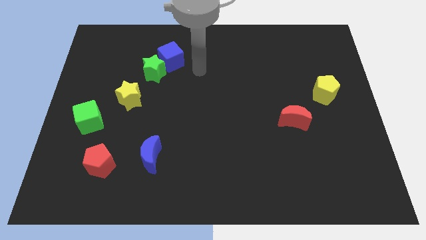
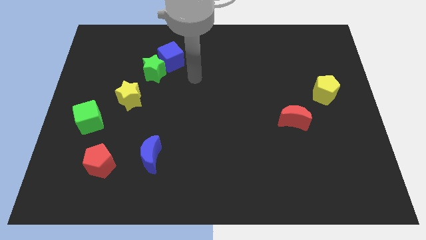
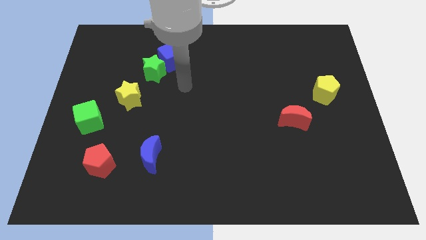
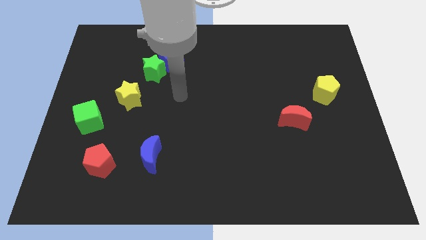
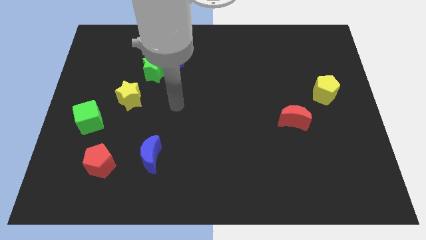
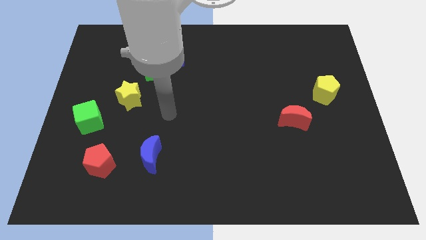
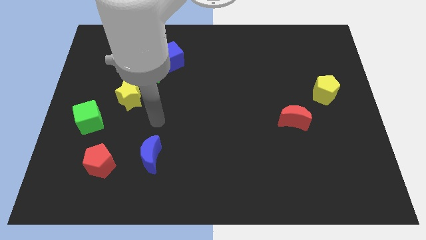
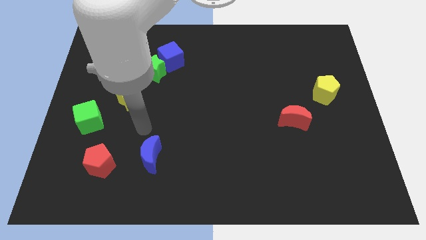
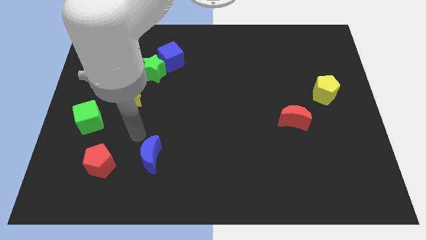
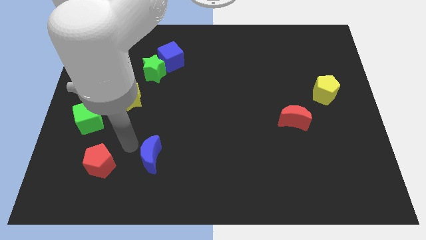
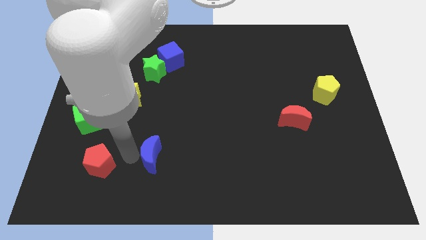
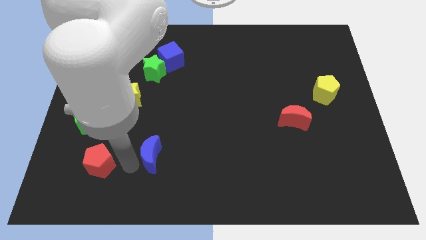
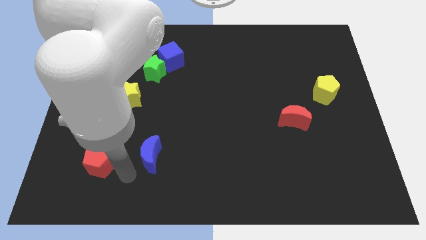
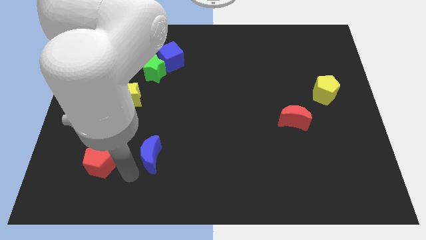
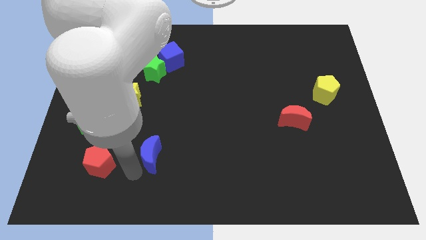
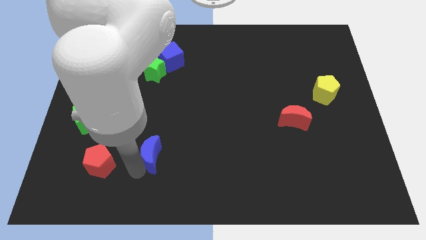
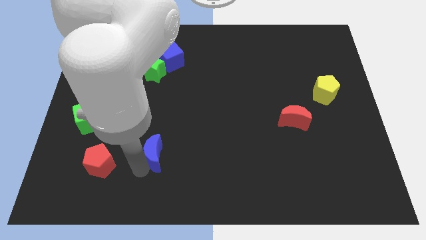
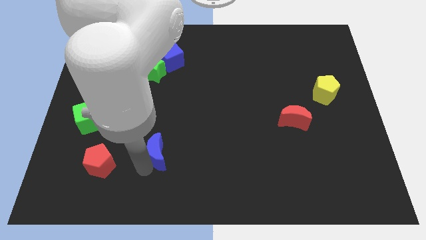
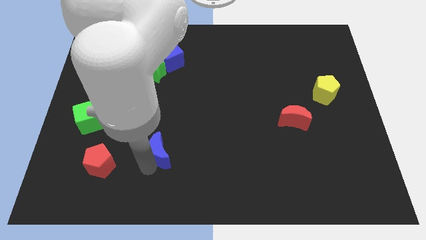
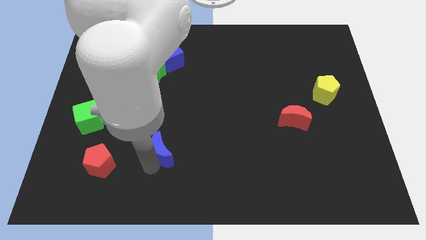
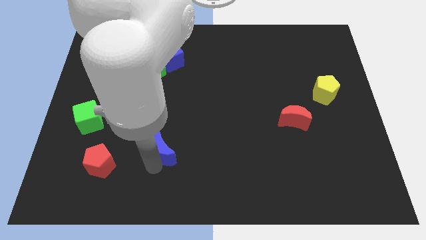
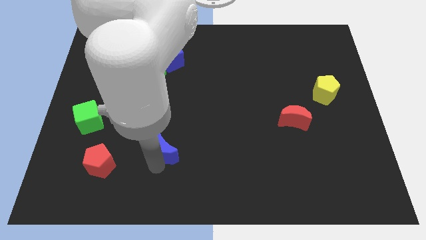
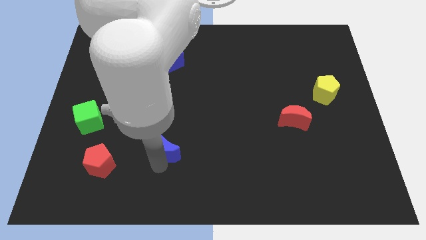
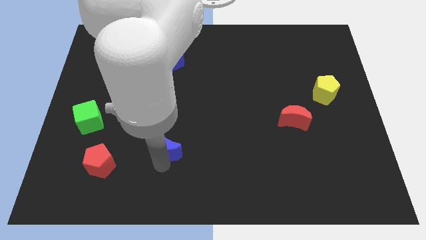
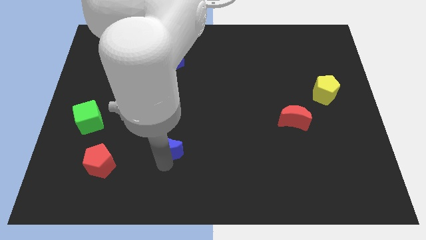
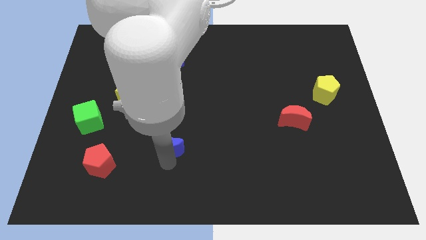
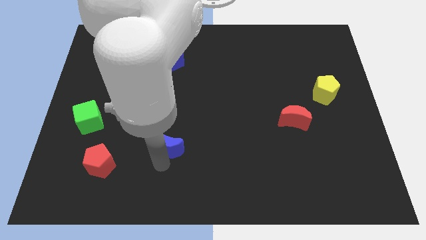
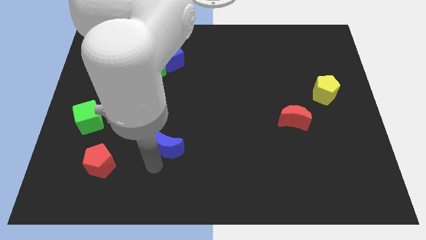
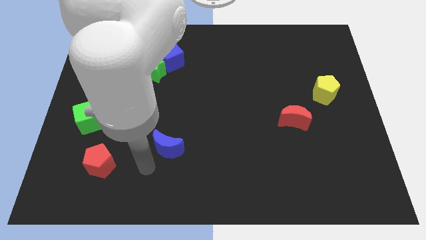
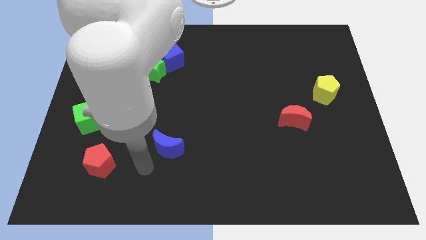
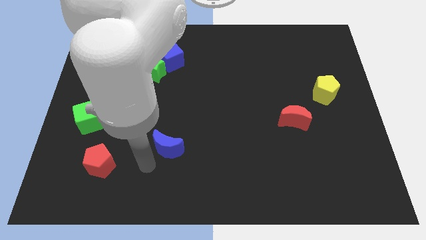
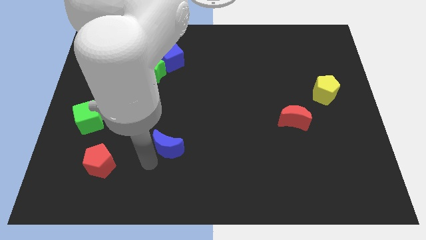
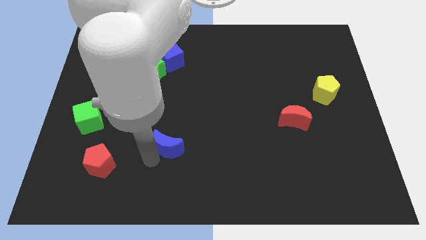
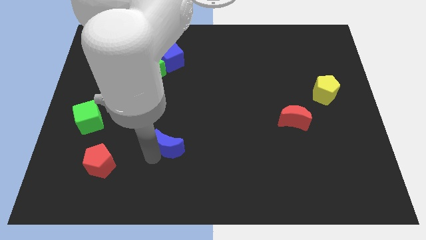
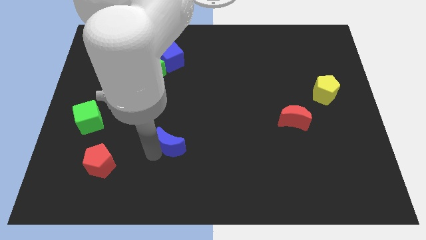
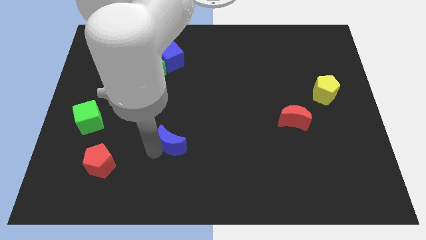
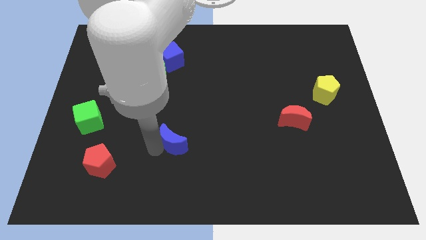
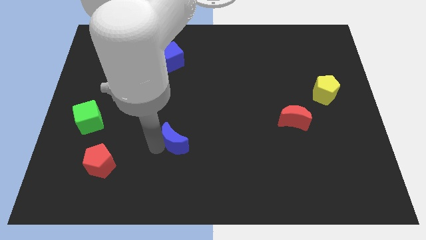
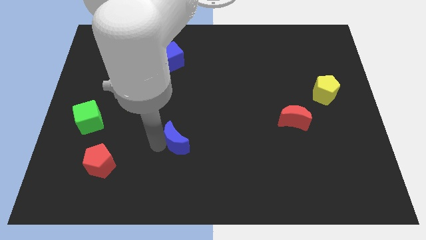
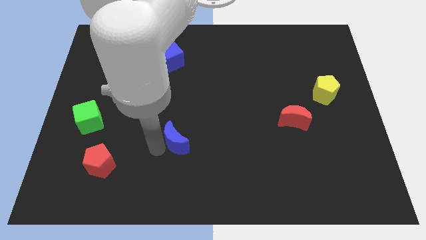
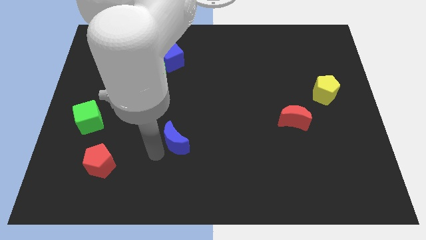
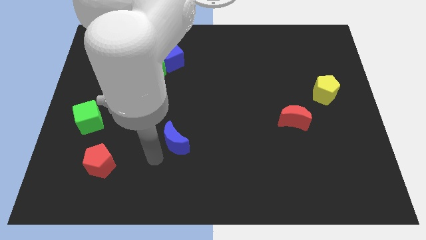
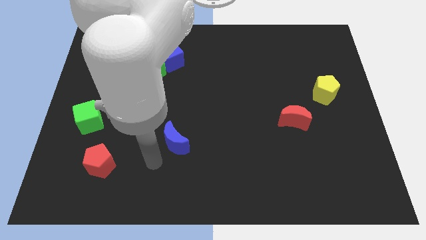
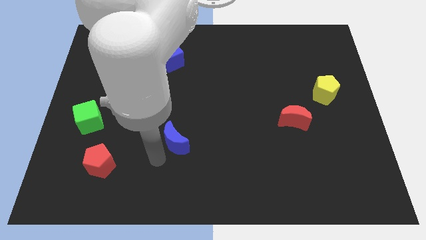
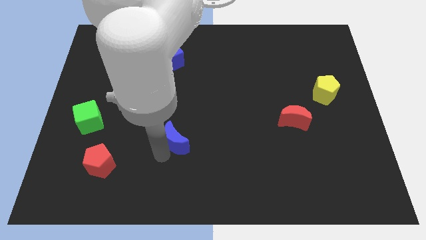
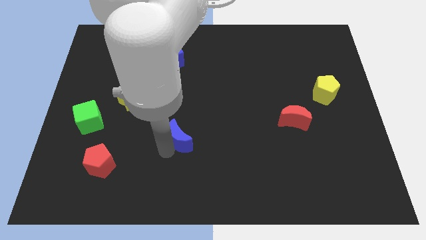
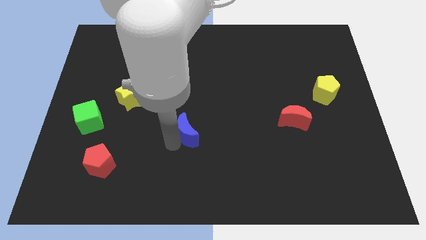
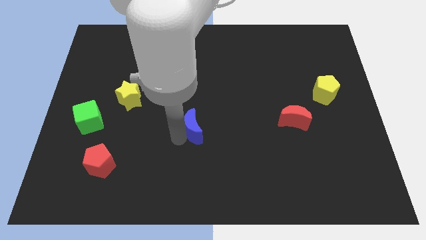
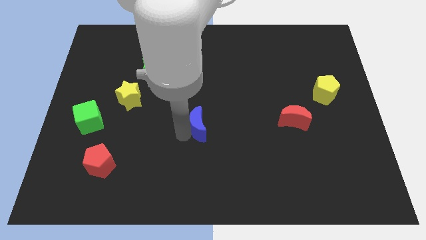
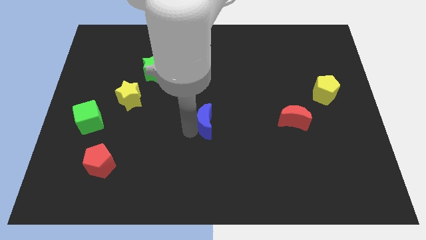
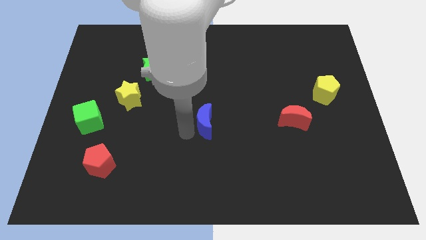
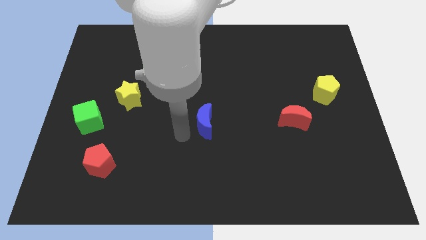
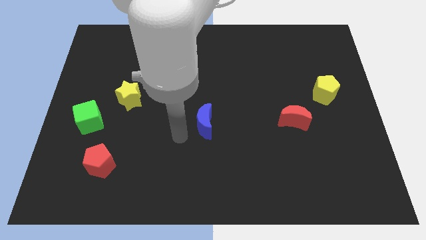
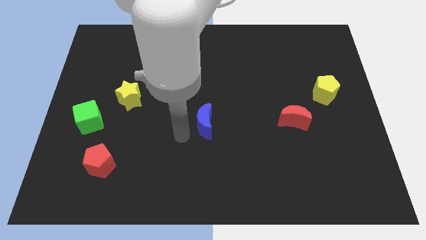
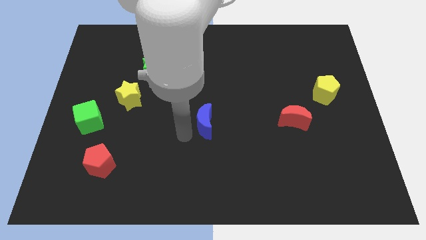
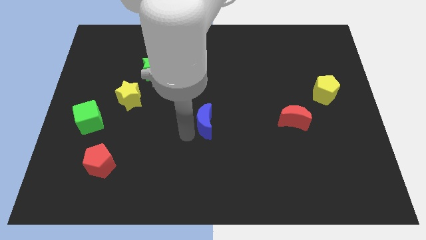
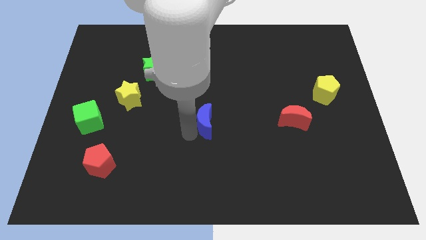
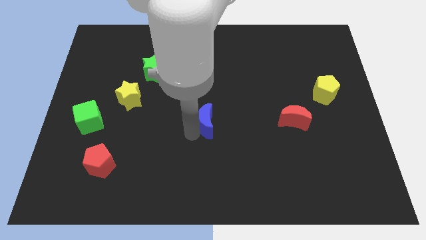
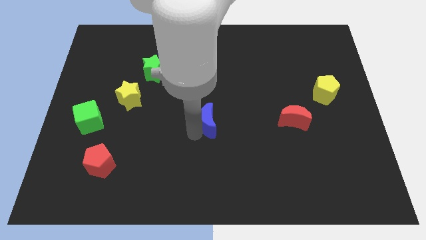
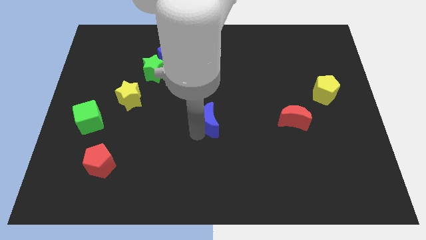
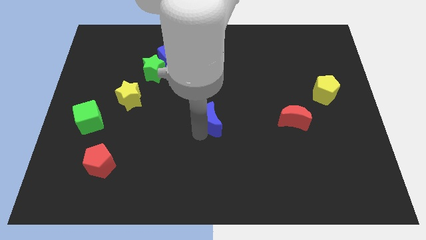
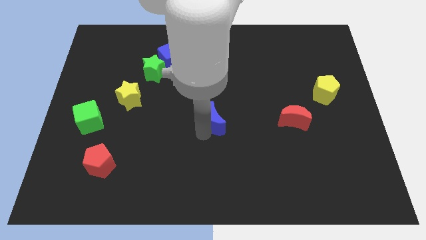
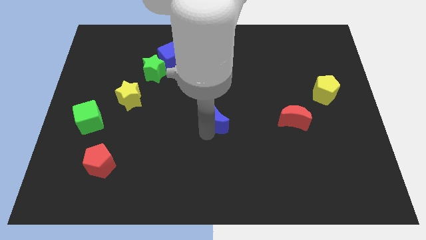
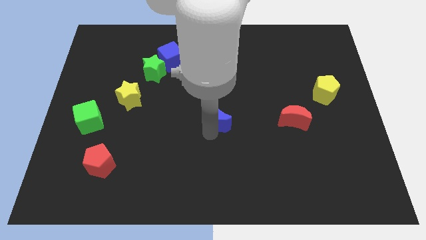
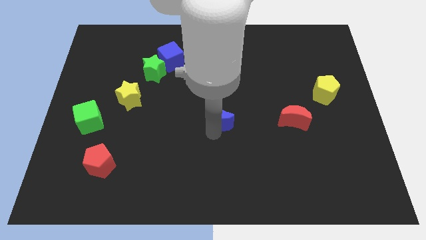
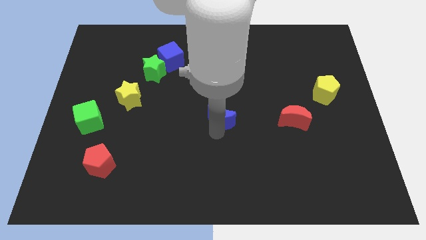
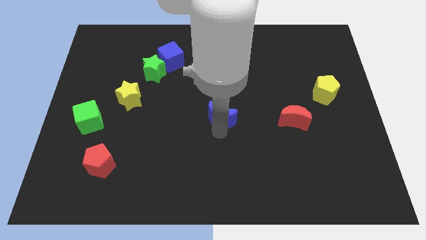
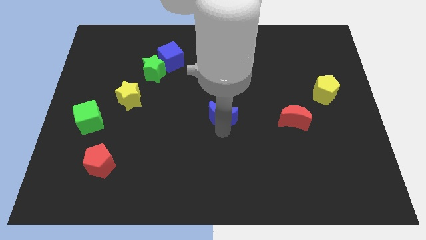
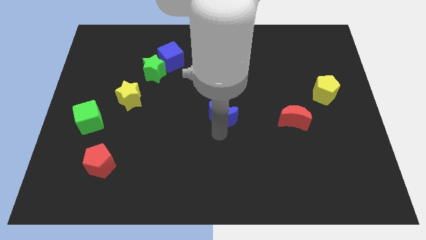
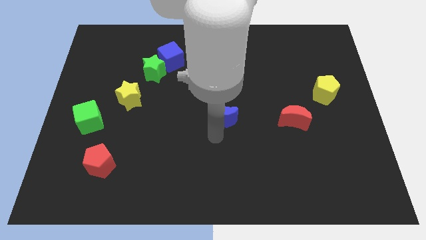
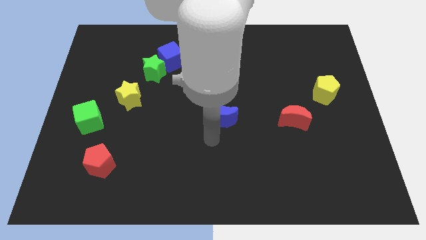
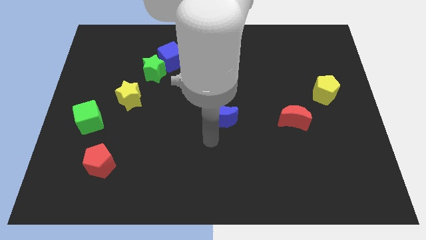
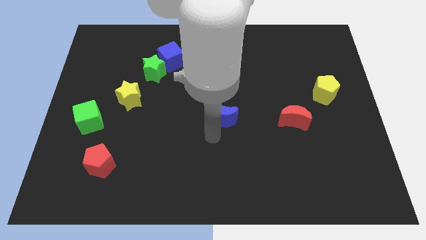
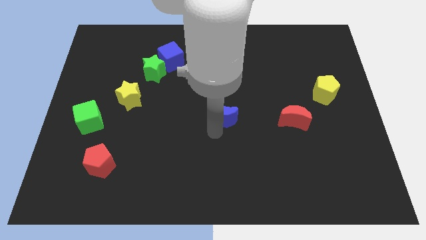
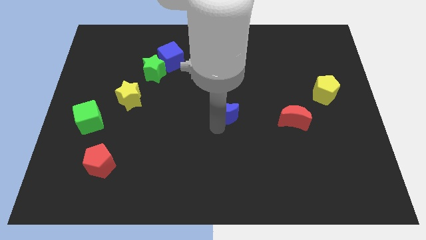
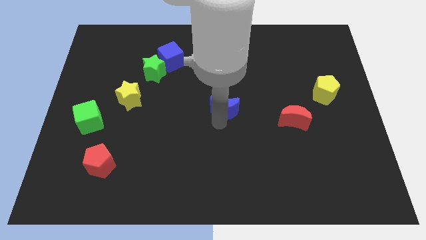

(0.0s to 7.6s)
push the blue moon up and to the right

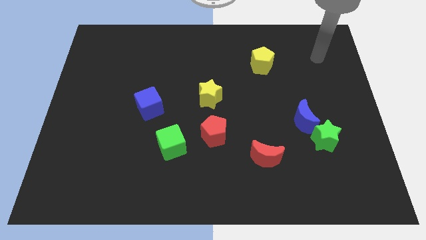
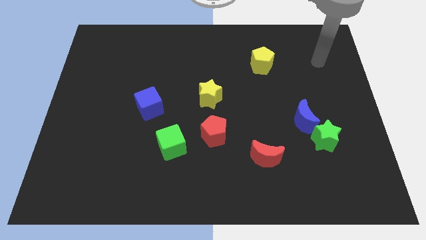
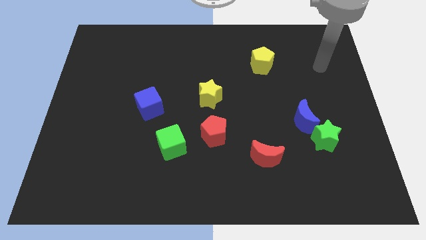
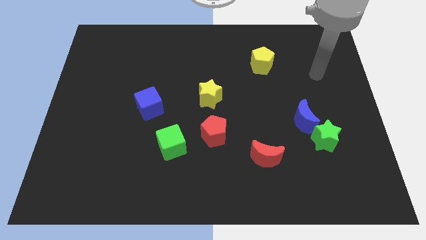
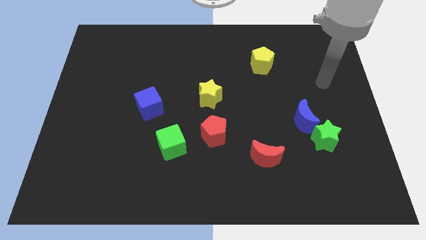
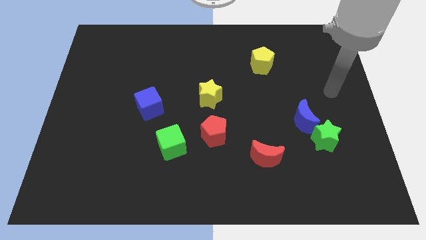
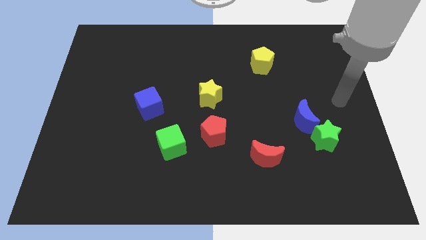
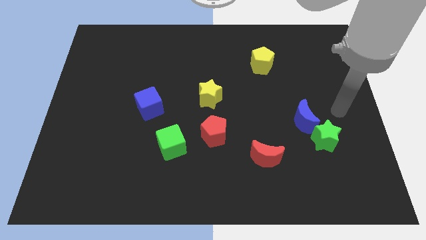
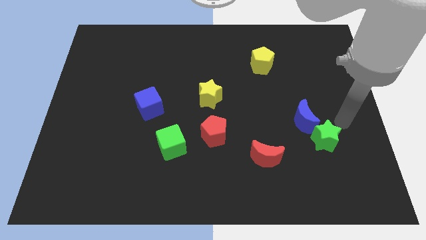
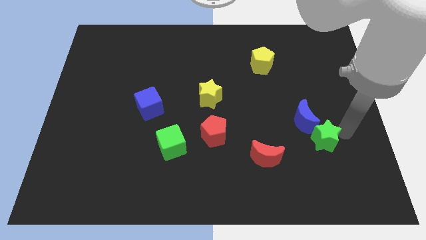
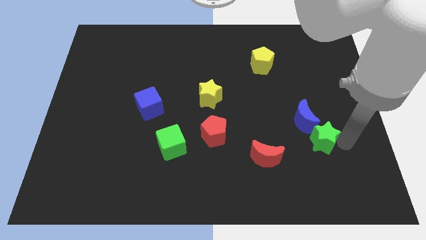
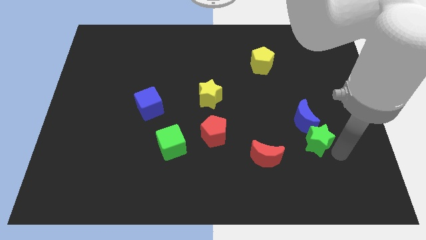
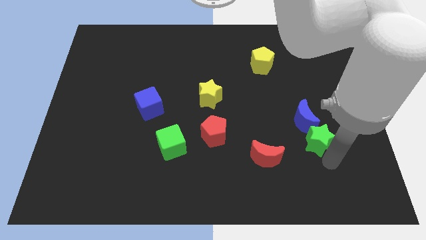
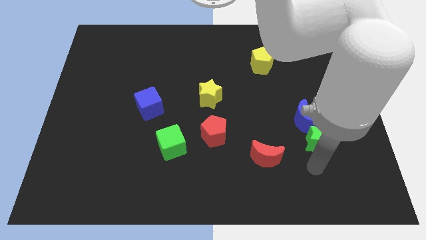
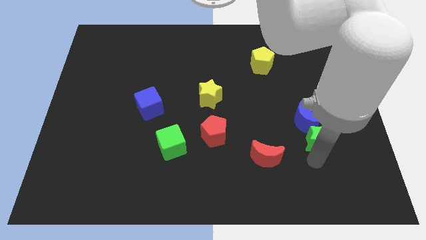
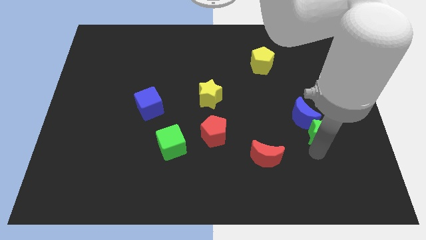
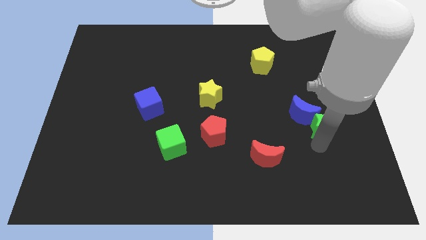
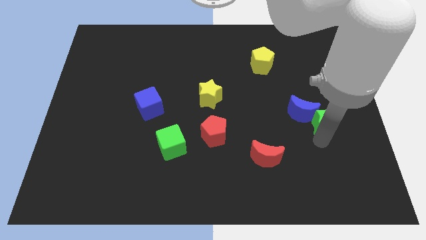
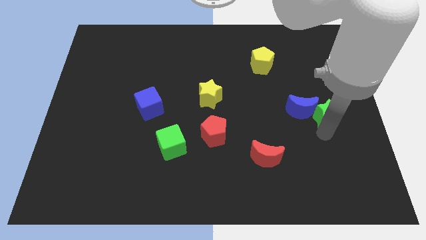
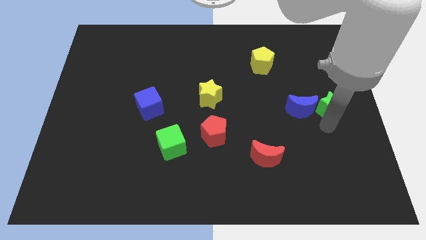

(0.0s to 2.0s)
move the green star up somewhat
